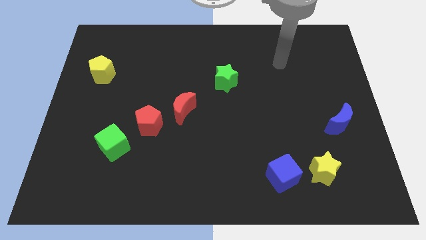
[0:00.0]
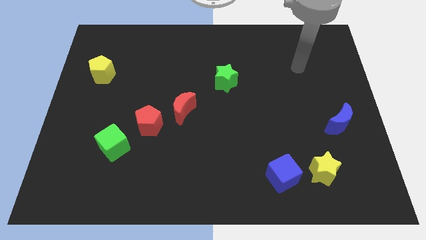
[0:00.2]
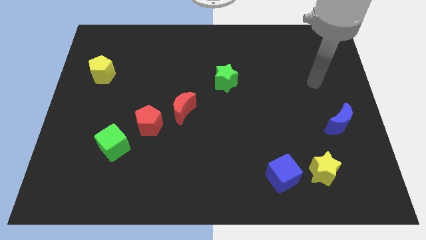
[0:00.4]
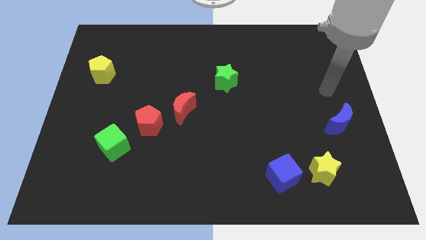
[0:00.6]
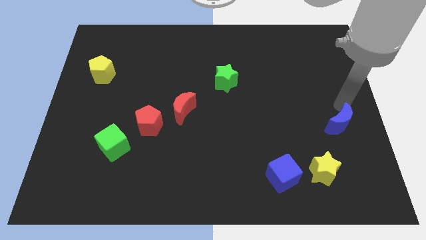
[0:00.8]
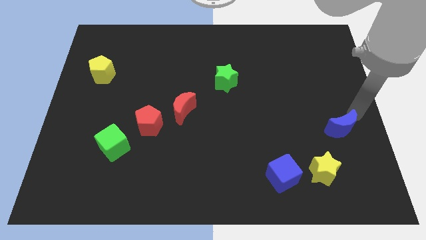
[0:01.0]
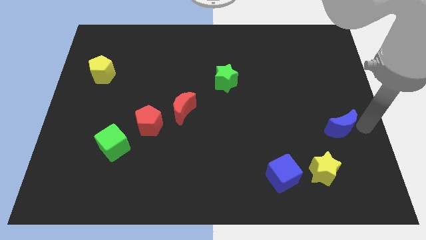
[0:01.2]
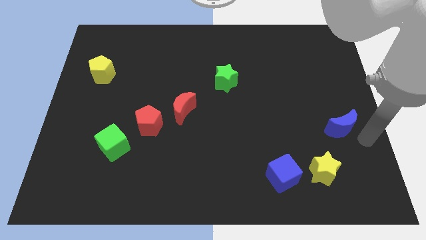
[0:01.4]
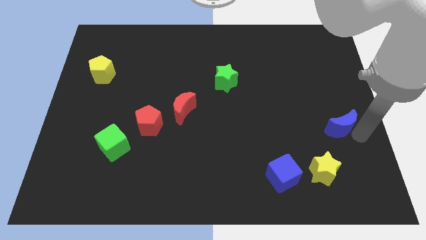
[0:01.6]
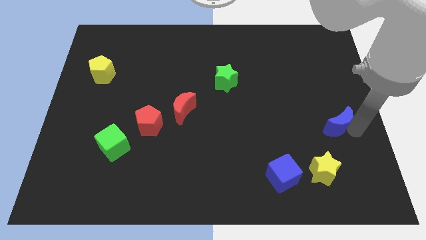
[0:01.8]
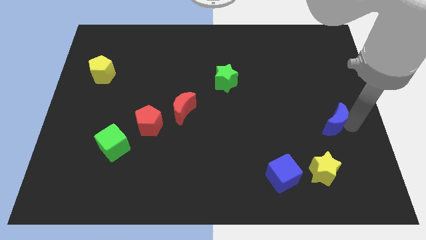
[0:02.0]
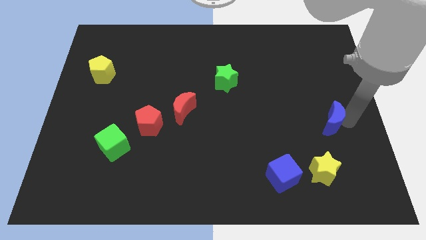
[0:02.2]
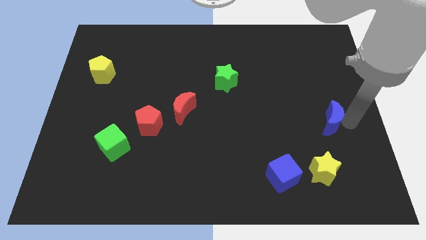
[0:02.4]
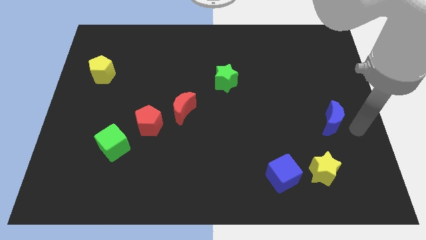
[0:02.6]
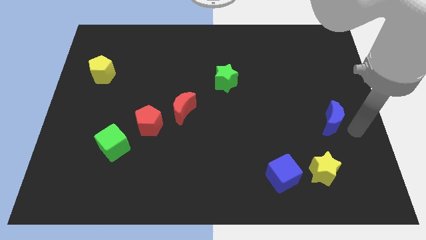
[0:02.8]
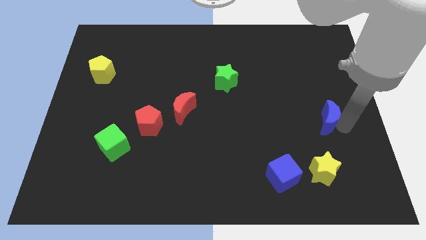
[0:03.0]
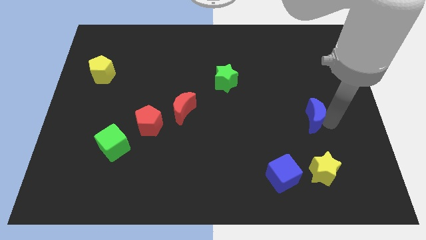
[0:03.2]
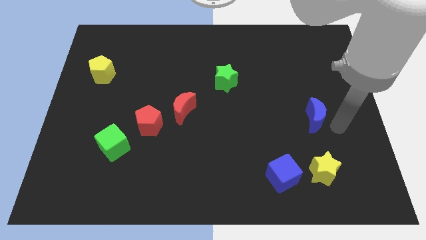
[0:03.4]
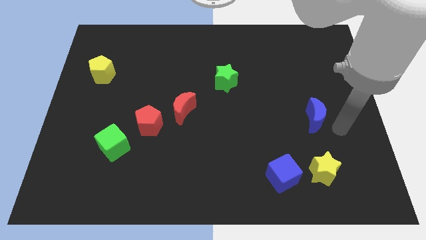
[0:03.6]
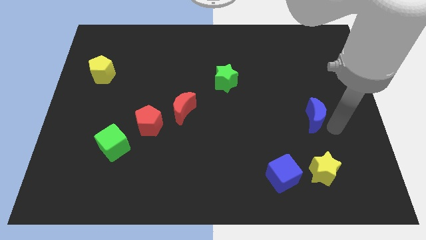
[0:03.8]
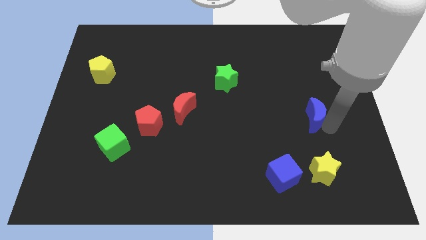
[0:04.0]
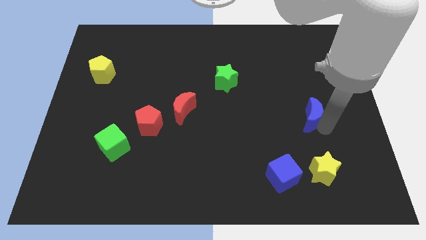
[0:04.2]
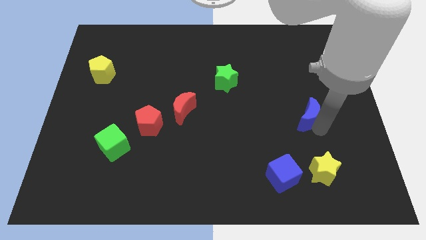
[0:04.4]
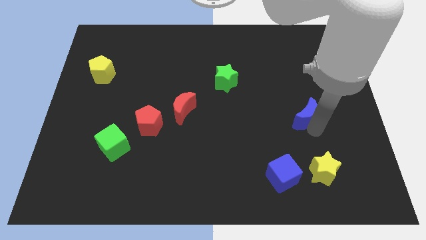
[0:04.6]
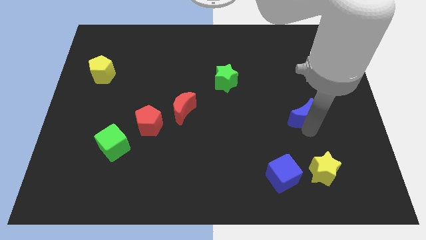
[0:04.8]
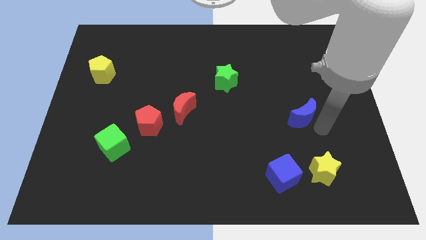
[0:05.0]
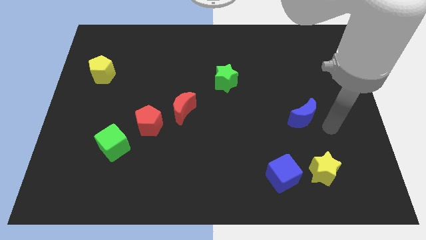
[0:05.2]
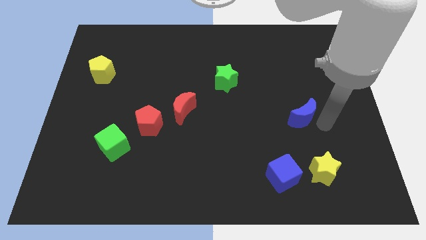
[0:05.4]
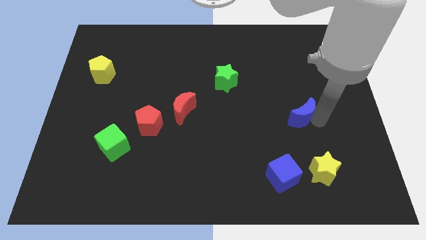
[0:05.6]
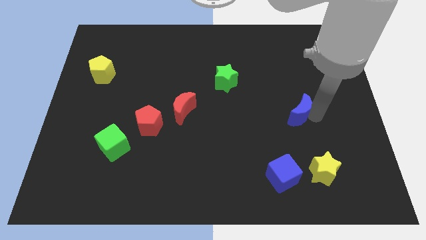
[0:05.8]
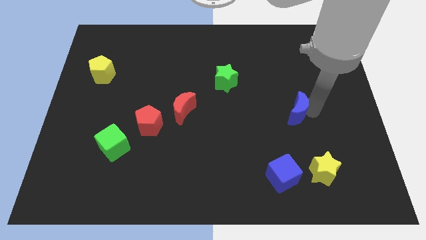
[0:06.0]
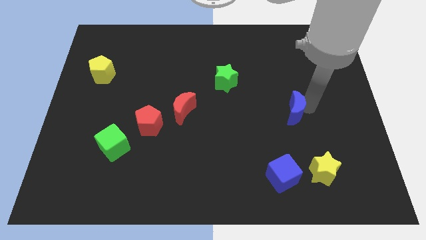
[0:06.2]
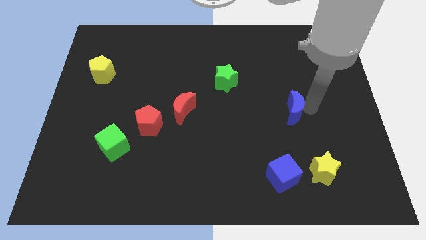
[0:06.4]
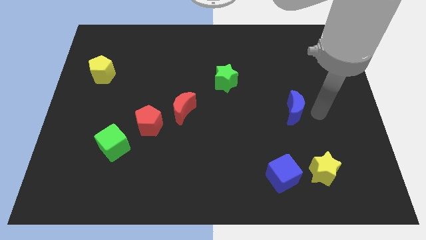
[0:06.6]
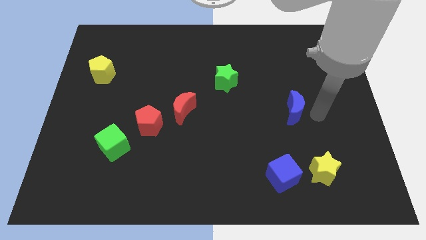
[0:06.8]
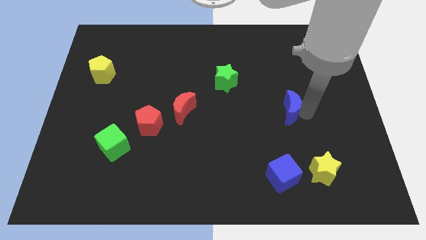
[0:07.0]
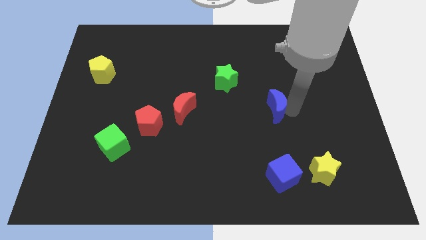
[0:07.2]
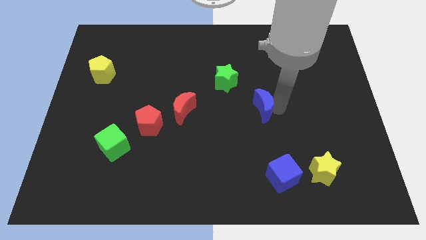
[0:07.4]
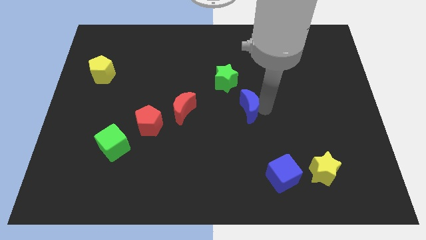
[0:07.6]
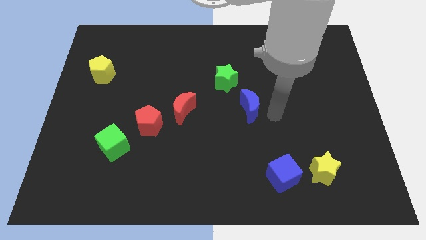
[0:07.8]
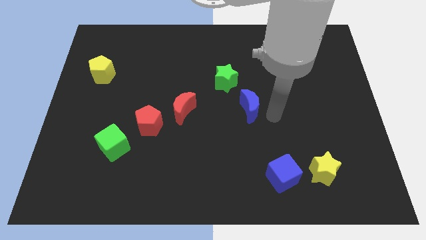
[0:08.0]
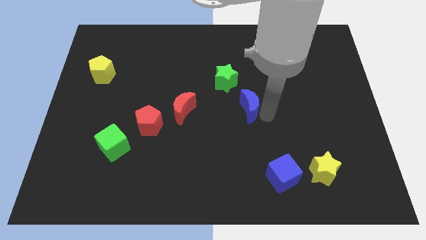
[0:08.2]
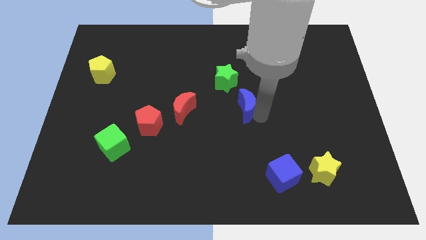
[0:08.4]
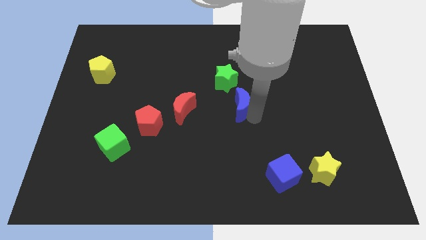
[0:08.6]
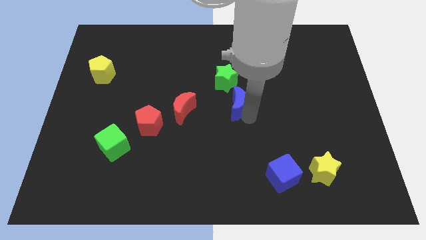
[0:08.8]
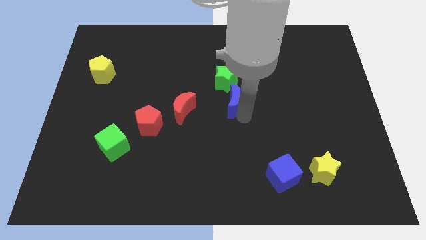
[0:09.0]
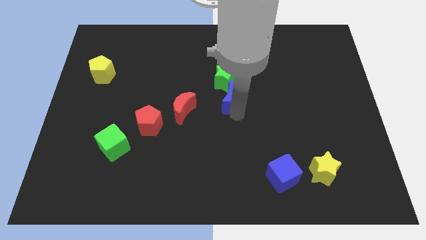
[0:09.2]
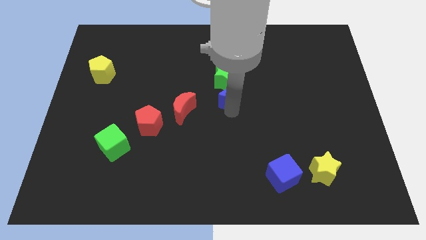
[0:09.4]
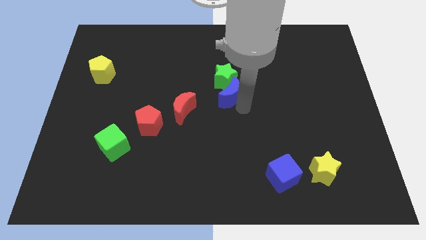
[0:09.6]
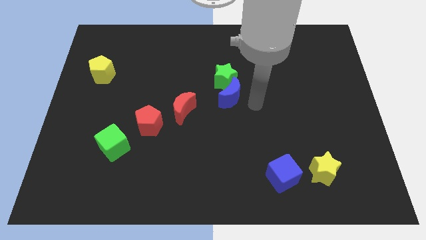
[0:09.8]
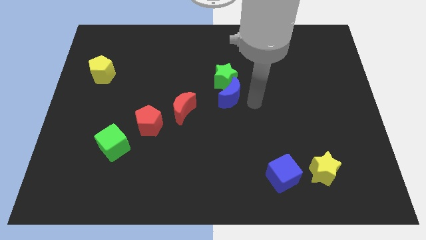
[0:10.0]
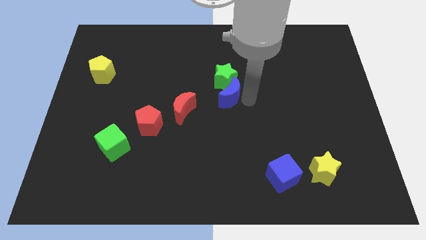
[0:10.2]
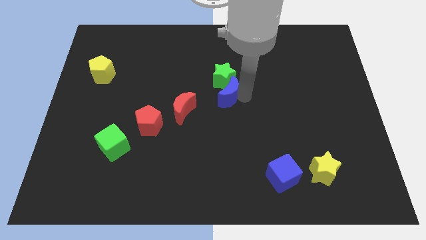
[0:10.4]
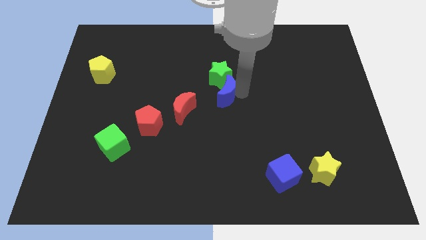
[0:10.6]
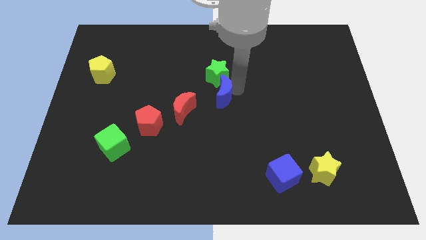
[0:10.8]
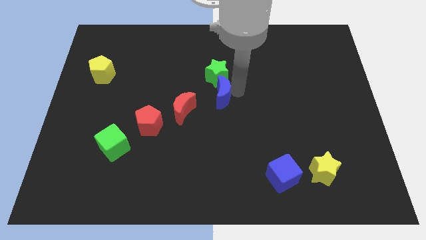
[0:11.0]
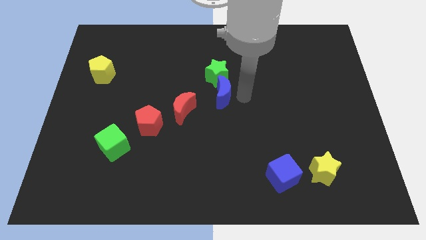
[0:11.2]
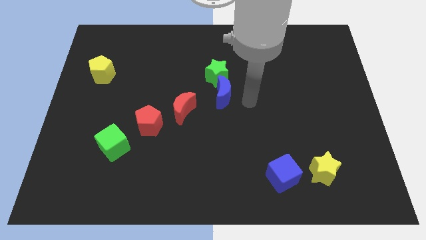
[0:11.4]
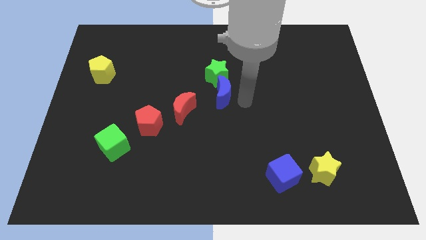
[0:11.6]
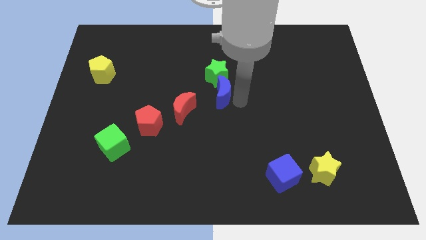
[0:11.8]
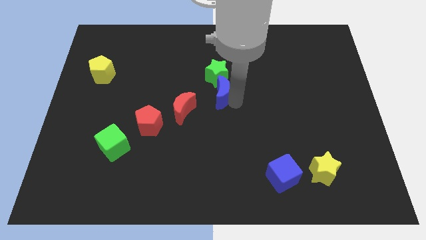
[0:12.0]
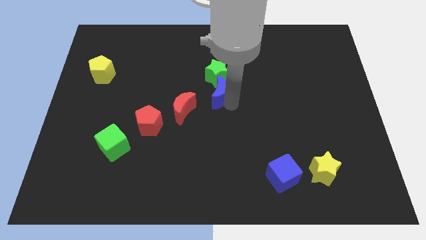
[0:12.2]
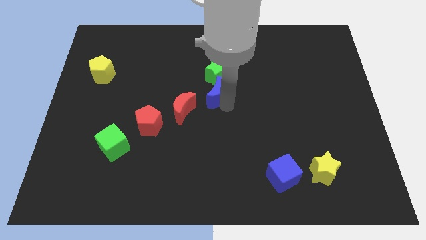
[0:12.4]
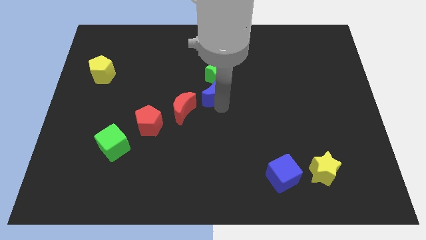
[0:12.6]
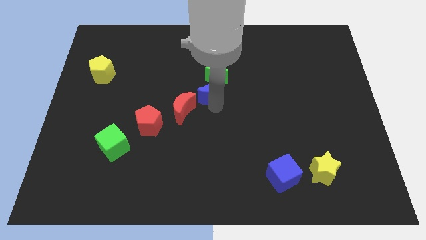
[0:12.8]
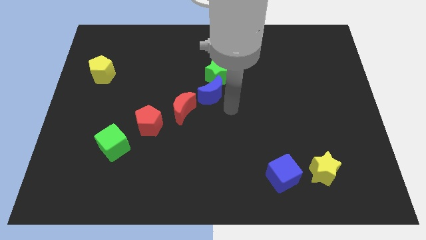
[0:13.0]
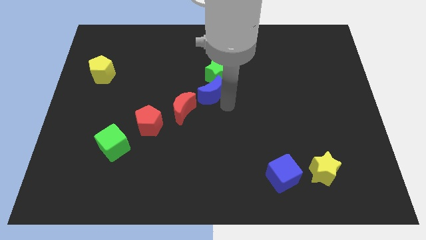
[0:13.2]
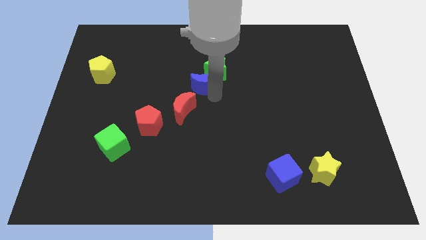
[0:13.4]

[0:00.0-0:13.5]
slide the blue moon to the top side of the red moon
